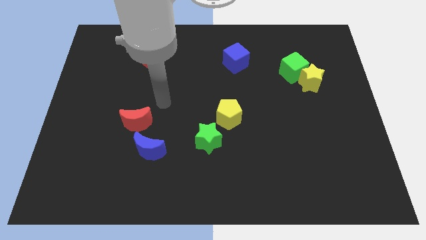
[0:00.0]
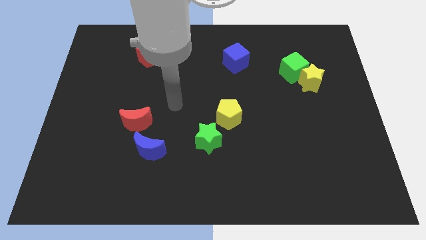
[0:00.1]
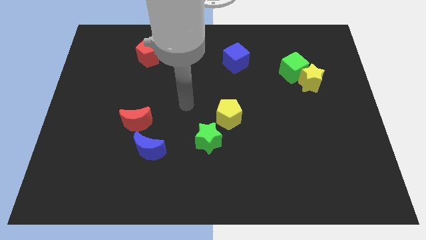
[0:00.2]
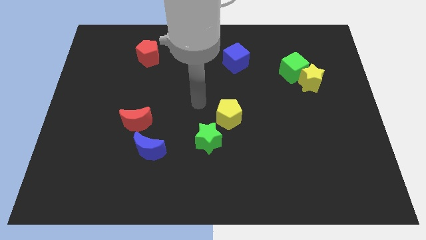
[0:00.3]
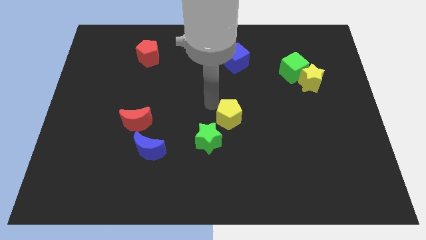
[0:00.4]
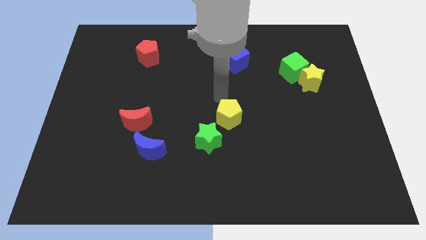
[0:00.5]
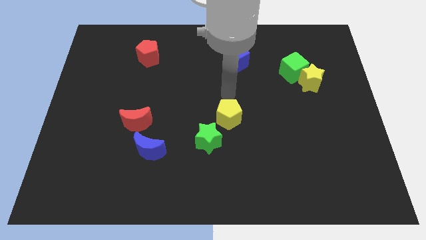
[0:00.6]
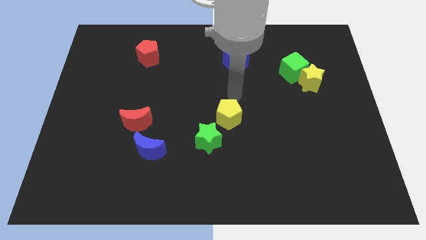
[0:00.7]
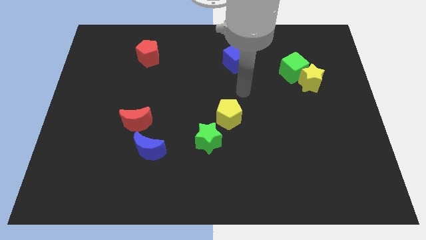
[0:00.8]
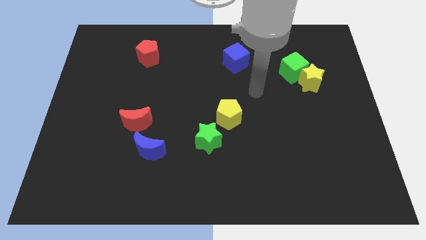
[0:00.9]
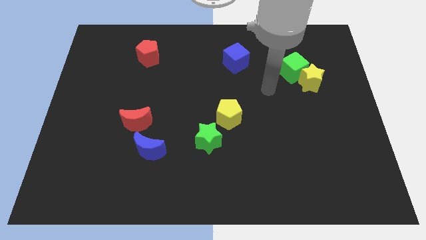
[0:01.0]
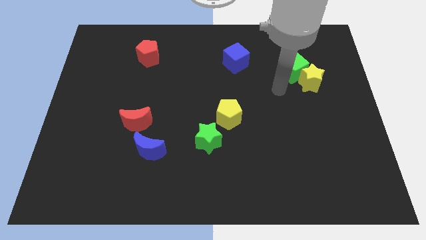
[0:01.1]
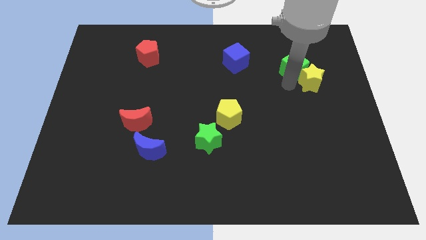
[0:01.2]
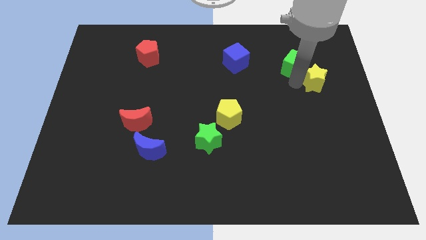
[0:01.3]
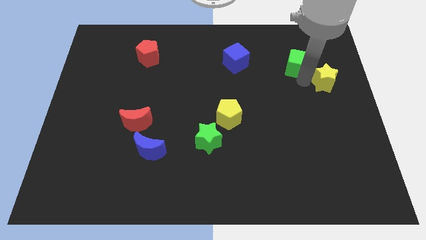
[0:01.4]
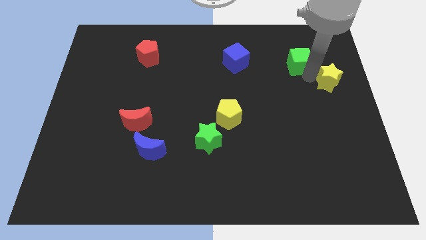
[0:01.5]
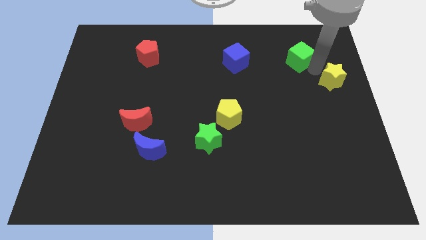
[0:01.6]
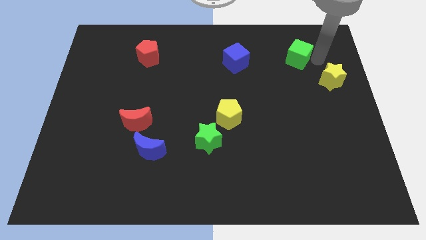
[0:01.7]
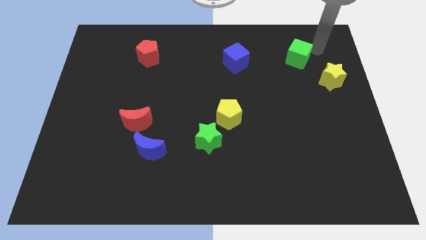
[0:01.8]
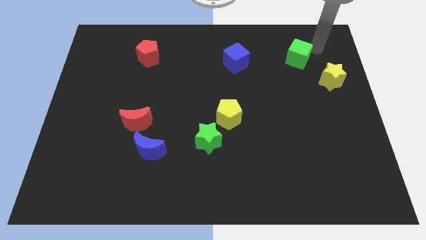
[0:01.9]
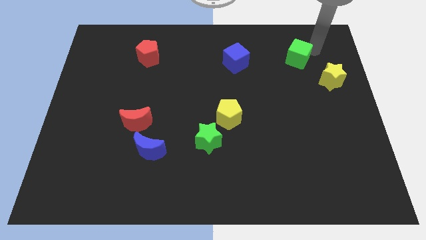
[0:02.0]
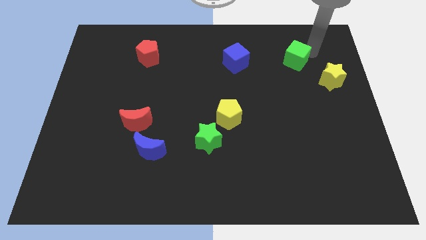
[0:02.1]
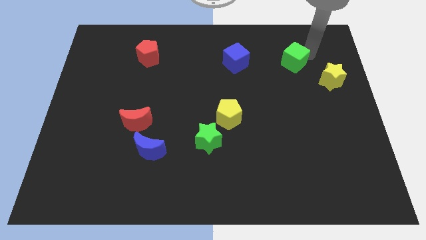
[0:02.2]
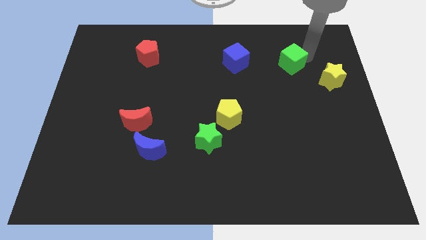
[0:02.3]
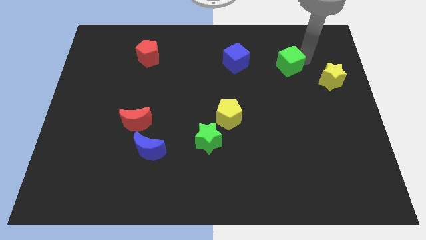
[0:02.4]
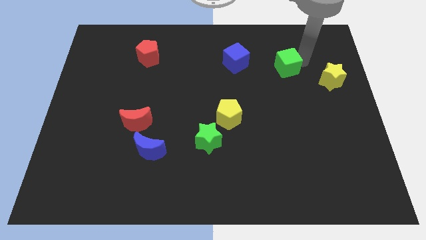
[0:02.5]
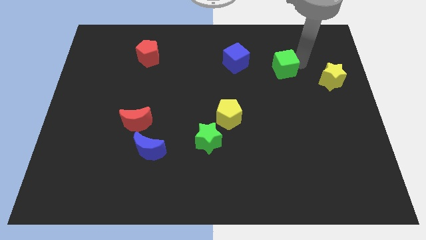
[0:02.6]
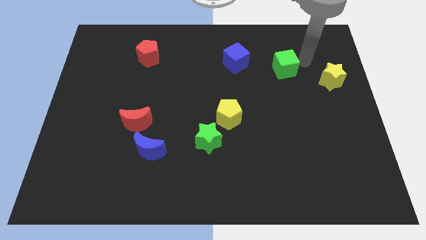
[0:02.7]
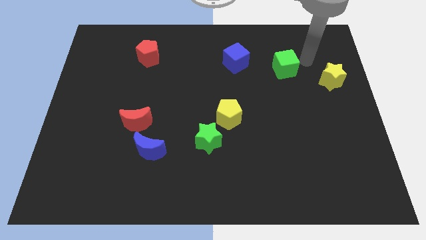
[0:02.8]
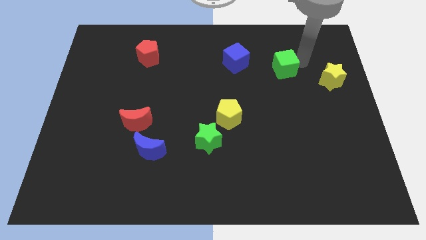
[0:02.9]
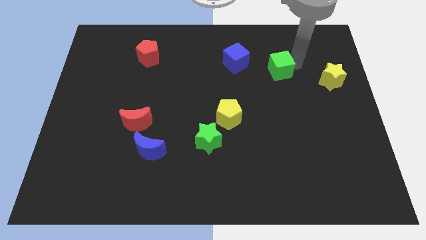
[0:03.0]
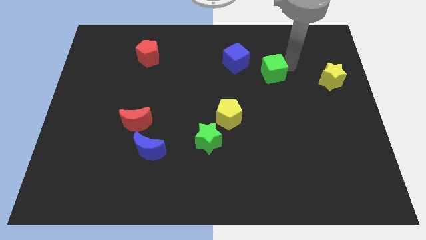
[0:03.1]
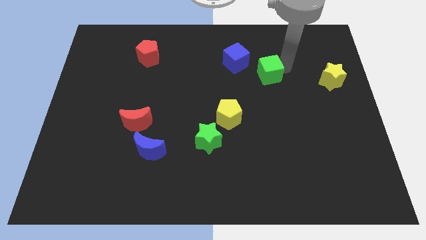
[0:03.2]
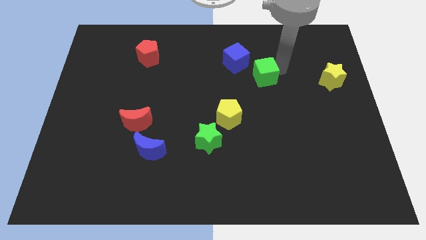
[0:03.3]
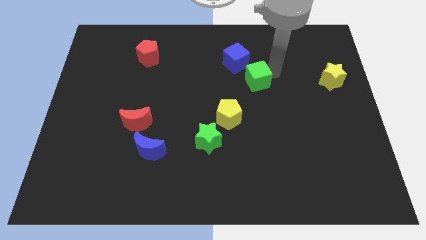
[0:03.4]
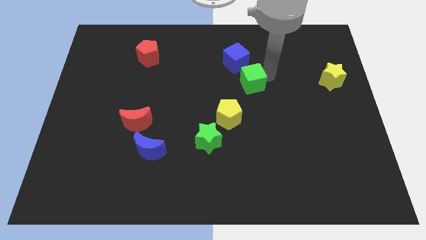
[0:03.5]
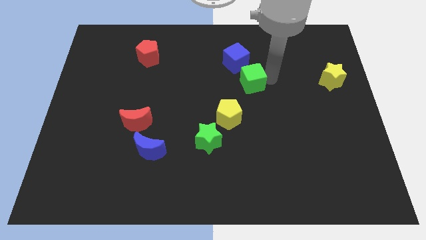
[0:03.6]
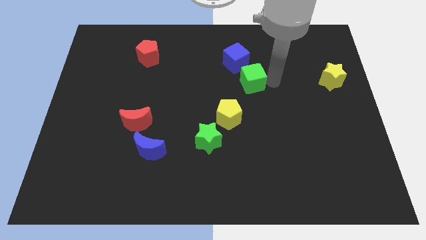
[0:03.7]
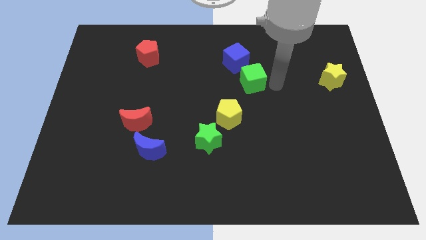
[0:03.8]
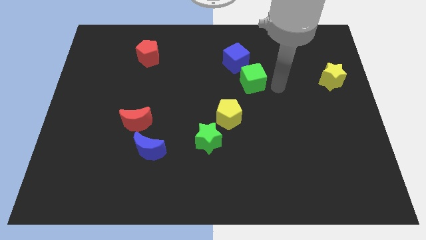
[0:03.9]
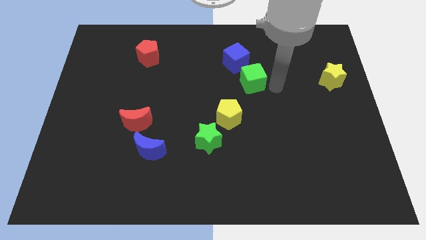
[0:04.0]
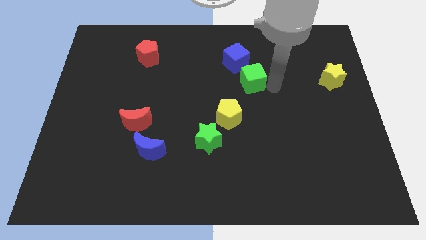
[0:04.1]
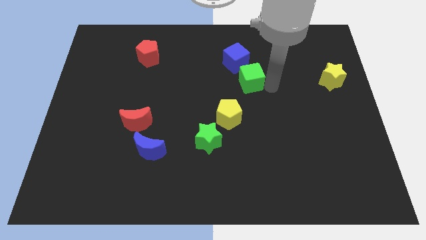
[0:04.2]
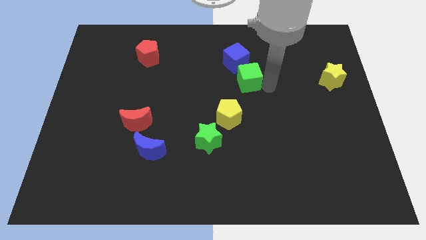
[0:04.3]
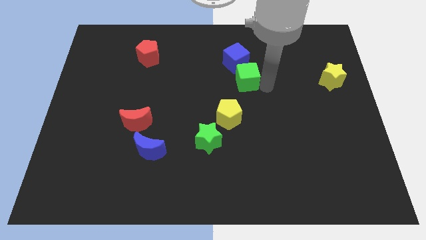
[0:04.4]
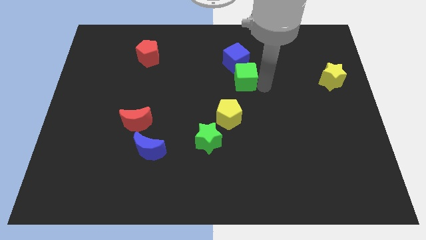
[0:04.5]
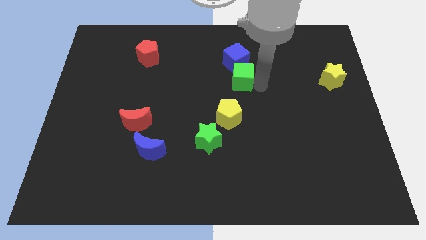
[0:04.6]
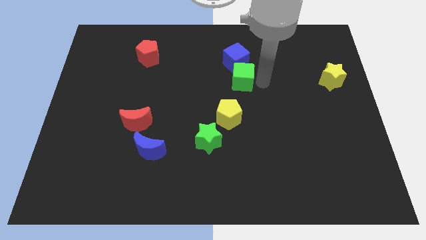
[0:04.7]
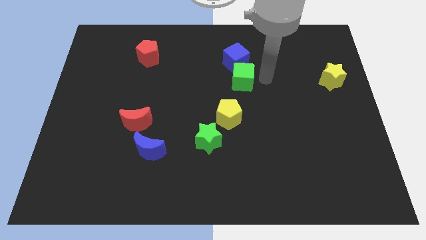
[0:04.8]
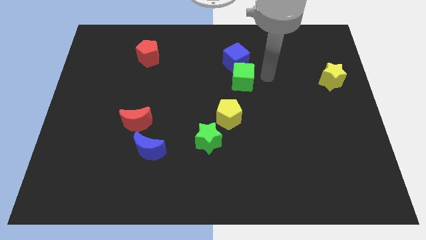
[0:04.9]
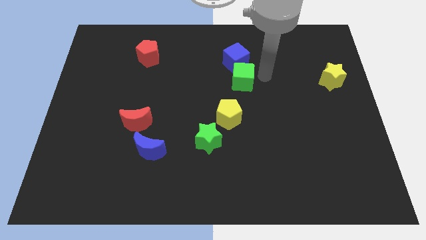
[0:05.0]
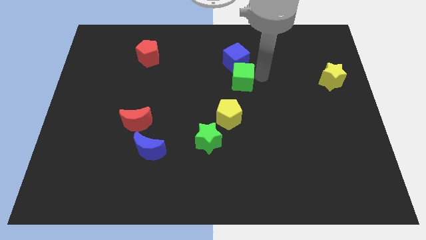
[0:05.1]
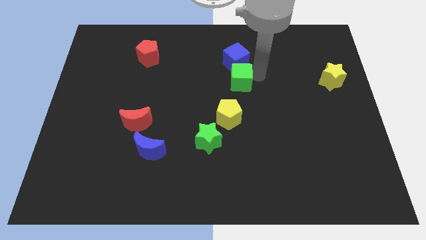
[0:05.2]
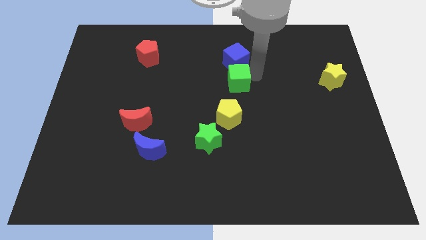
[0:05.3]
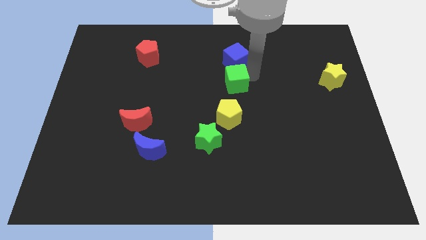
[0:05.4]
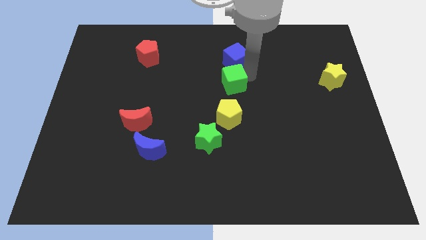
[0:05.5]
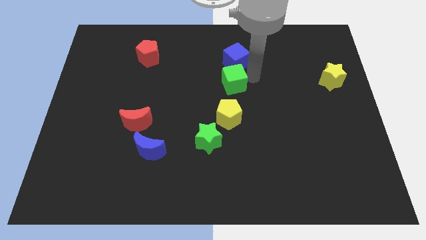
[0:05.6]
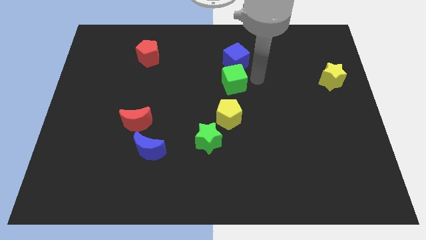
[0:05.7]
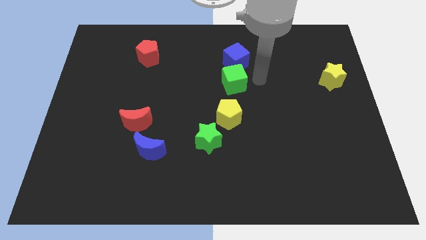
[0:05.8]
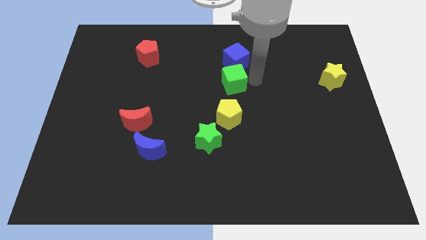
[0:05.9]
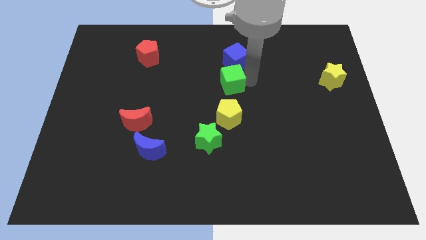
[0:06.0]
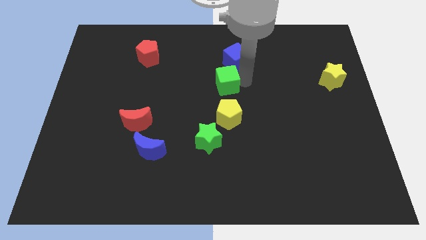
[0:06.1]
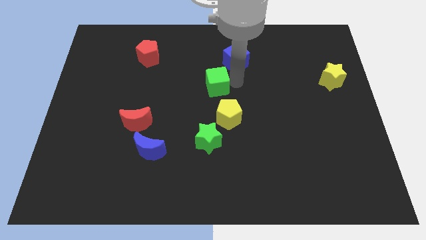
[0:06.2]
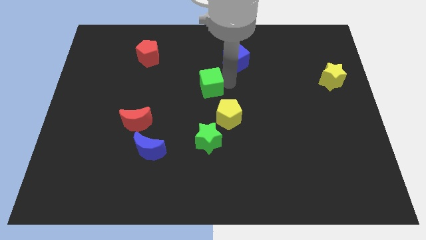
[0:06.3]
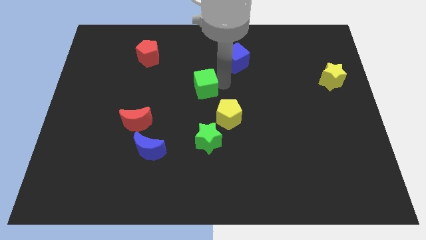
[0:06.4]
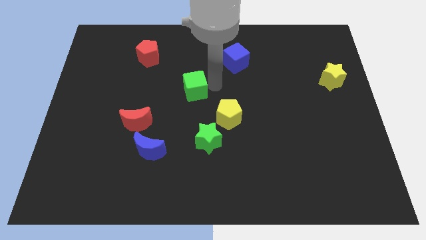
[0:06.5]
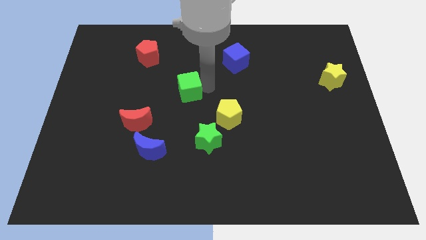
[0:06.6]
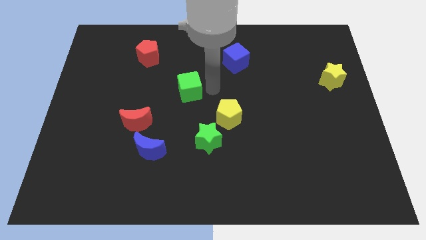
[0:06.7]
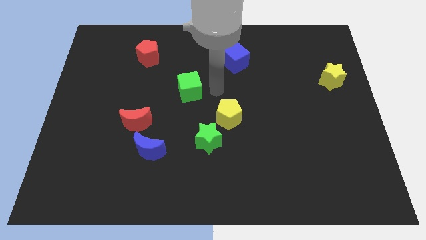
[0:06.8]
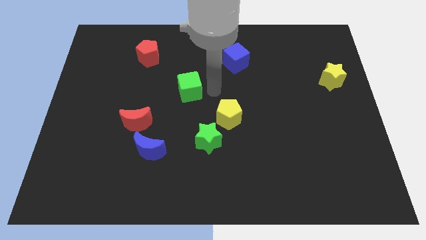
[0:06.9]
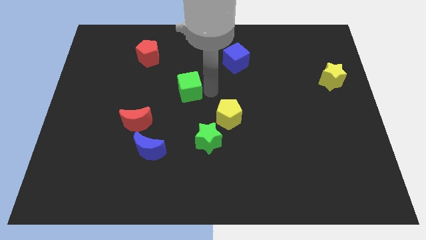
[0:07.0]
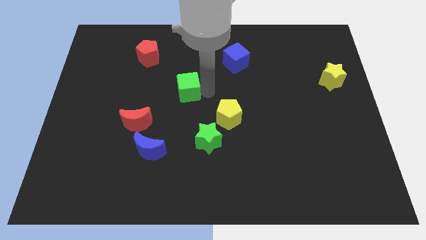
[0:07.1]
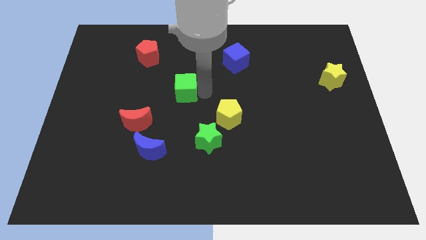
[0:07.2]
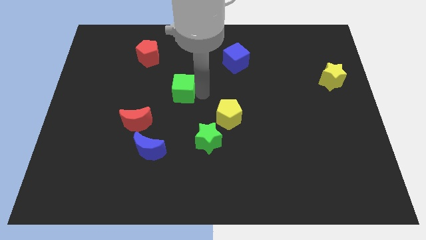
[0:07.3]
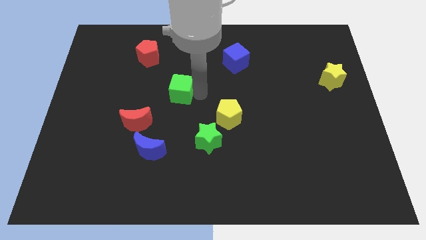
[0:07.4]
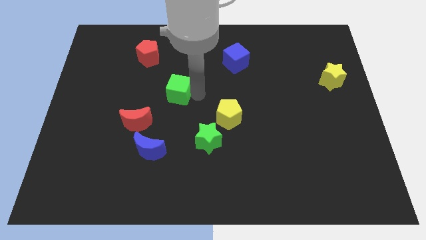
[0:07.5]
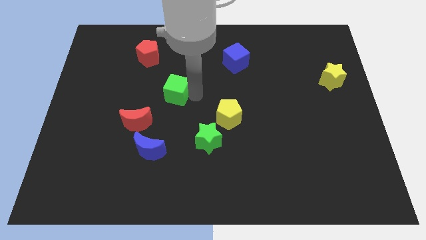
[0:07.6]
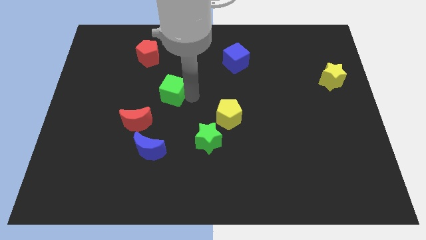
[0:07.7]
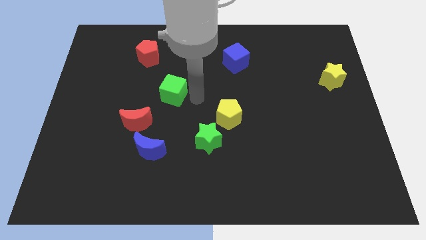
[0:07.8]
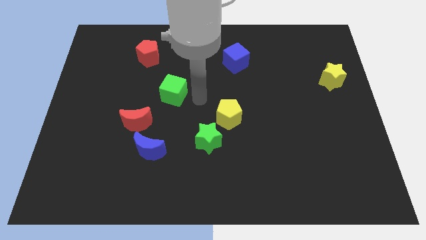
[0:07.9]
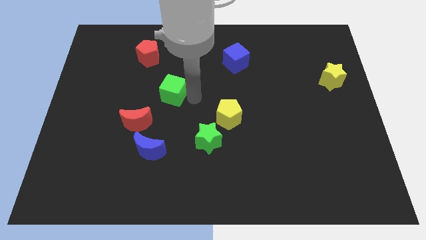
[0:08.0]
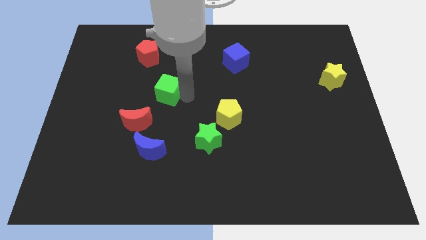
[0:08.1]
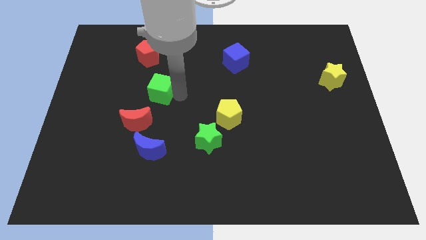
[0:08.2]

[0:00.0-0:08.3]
push the green cube to the bottom of the red pentagon

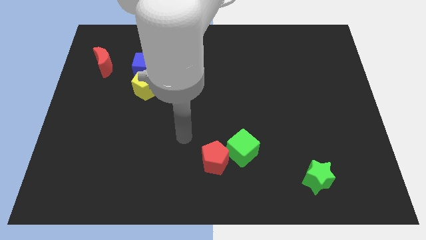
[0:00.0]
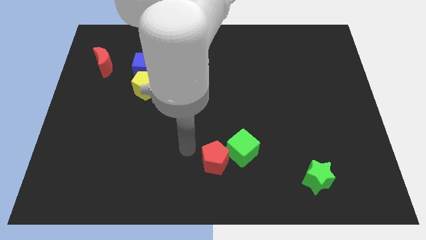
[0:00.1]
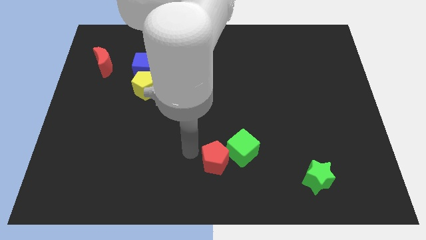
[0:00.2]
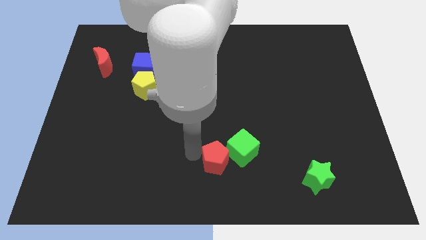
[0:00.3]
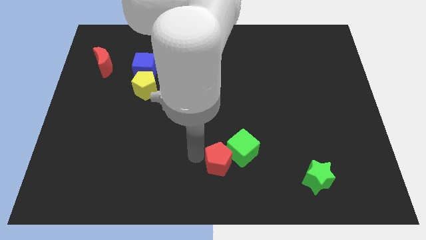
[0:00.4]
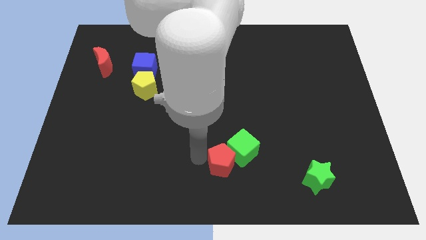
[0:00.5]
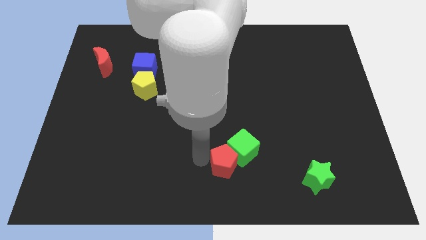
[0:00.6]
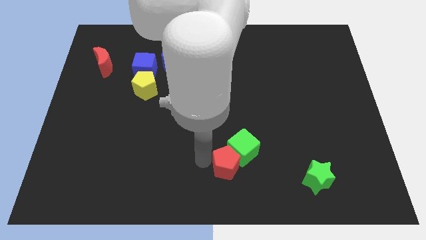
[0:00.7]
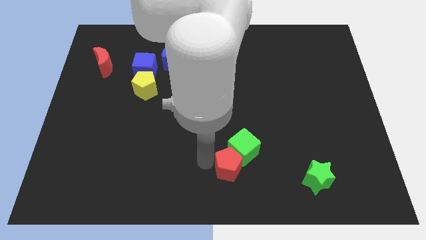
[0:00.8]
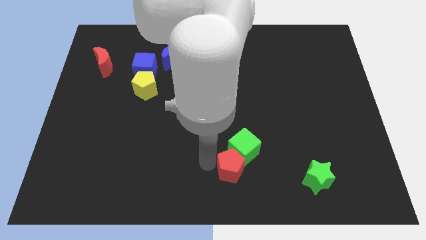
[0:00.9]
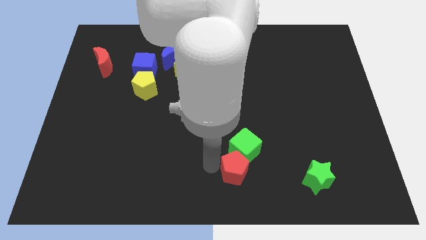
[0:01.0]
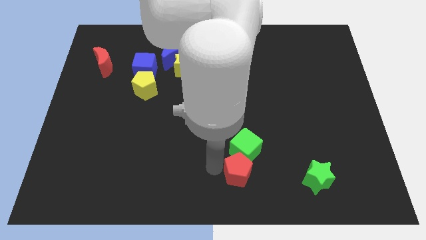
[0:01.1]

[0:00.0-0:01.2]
push the red pentagon left of the green star
